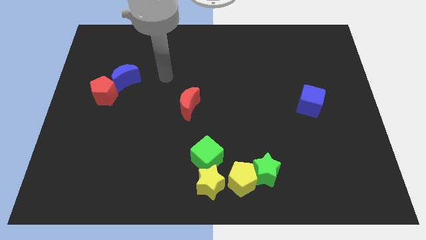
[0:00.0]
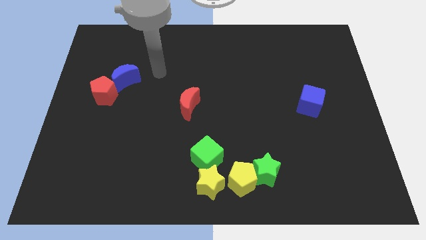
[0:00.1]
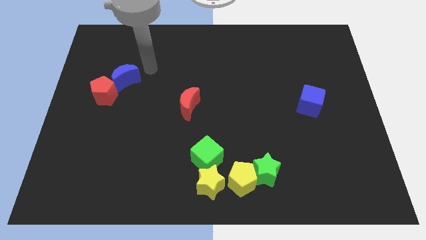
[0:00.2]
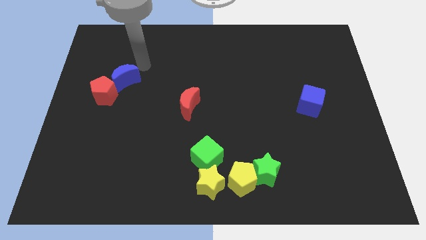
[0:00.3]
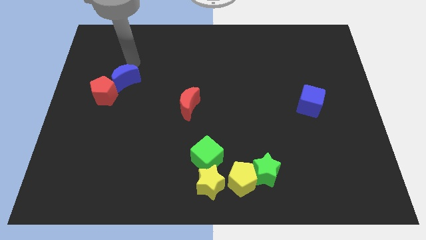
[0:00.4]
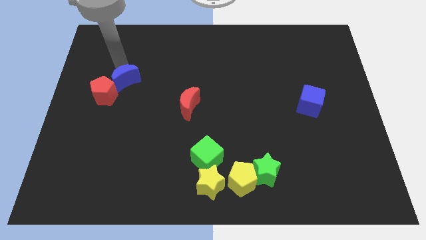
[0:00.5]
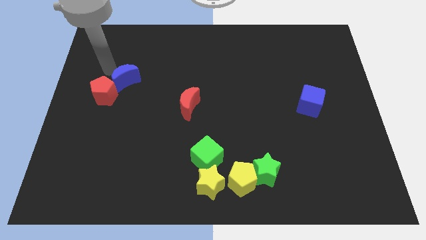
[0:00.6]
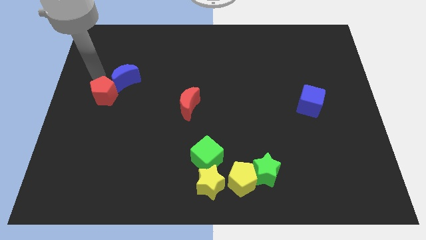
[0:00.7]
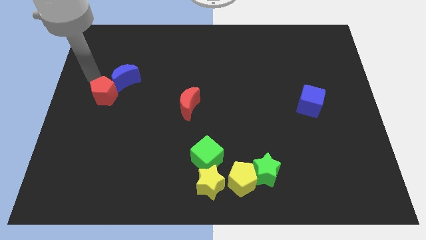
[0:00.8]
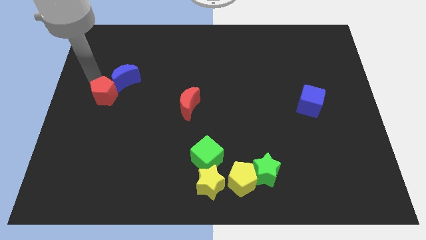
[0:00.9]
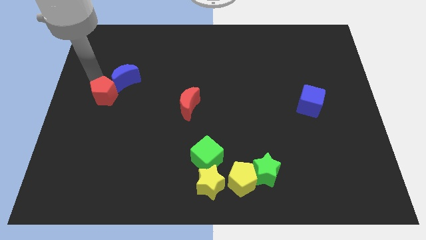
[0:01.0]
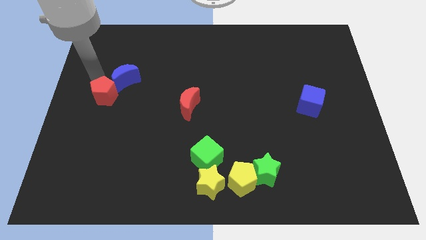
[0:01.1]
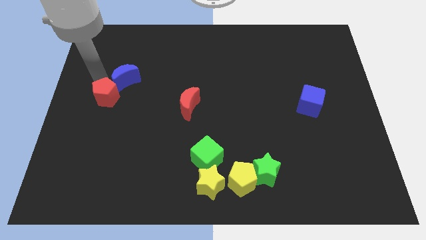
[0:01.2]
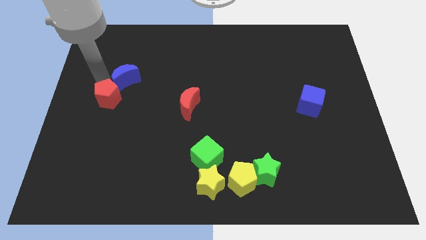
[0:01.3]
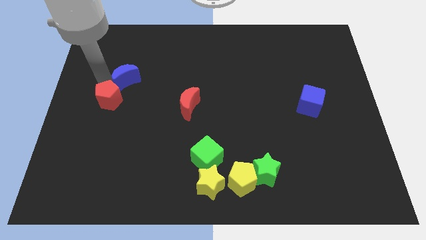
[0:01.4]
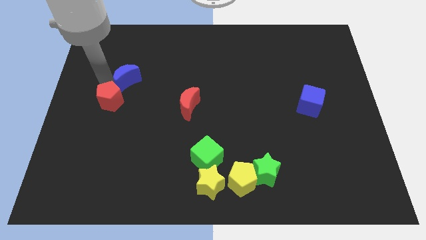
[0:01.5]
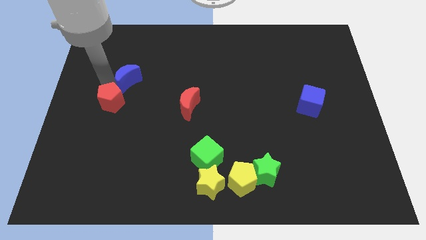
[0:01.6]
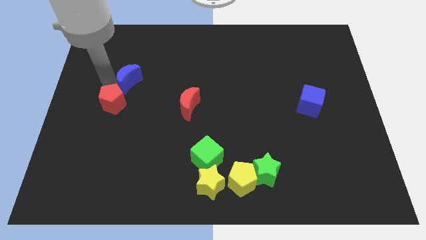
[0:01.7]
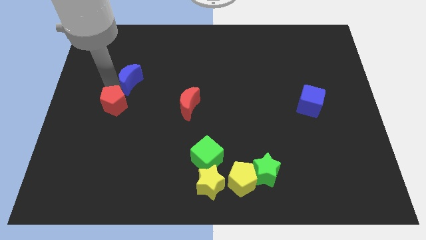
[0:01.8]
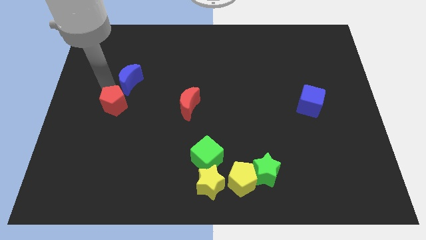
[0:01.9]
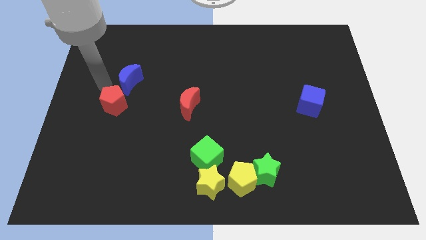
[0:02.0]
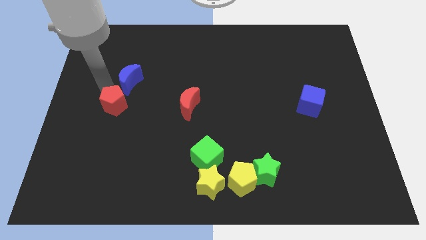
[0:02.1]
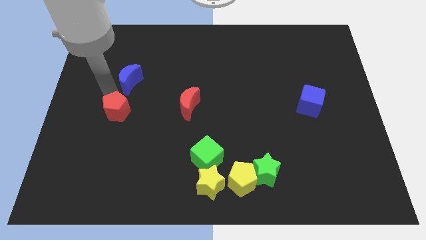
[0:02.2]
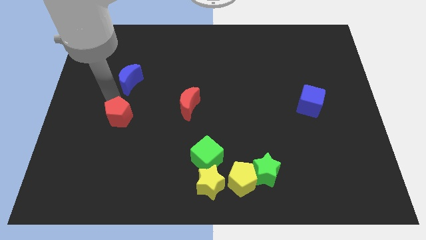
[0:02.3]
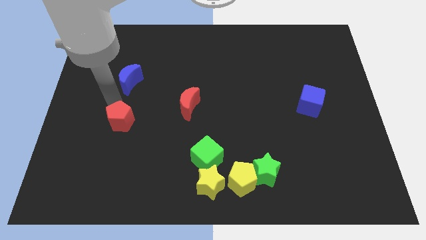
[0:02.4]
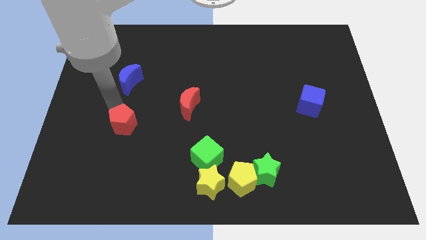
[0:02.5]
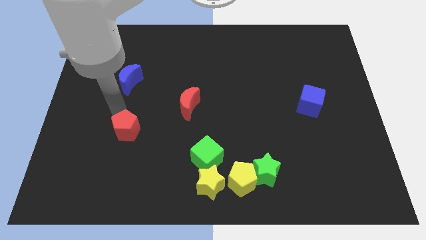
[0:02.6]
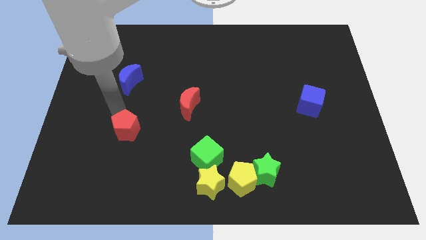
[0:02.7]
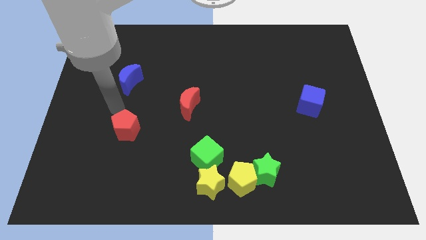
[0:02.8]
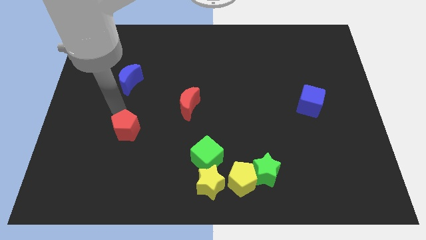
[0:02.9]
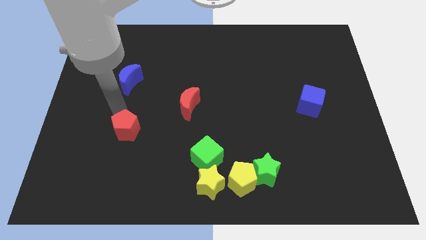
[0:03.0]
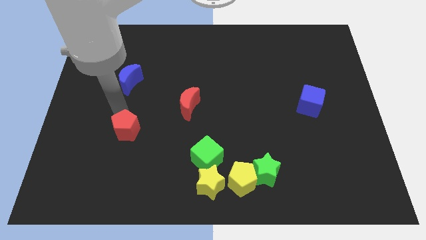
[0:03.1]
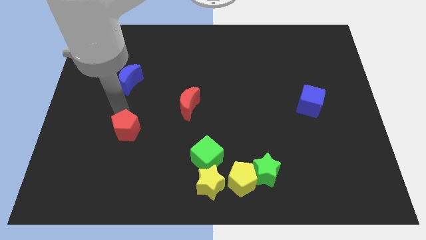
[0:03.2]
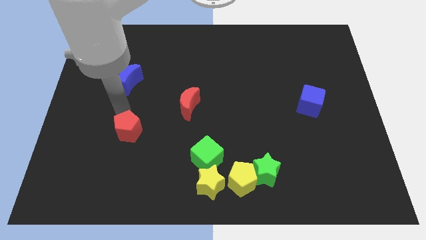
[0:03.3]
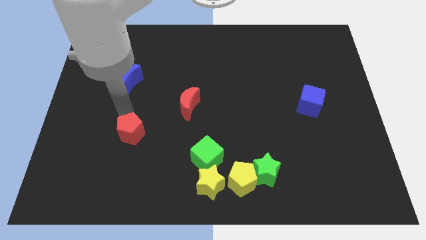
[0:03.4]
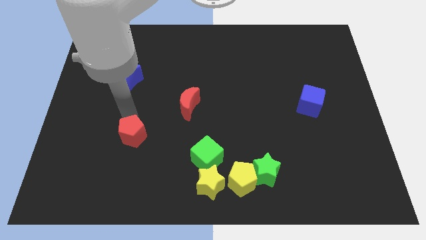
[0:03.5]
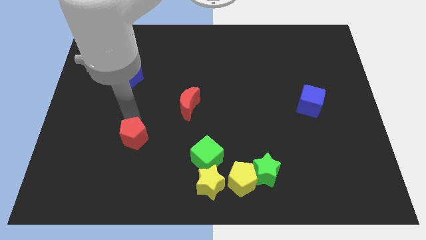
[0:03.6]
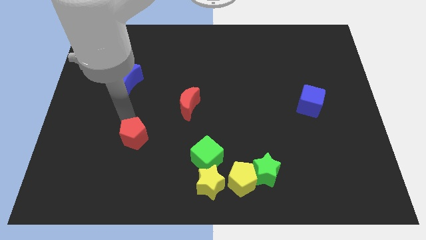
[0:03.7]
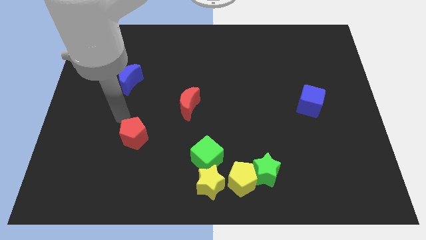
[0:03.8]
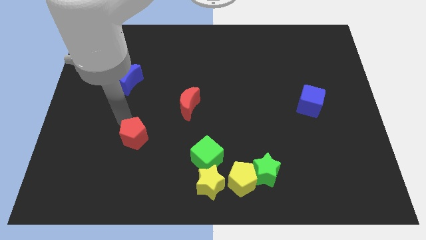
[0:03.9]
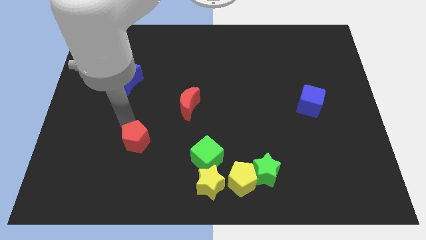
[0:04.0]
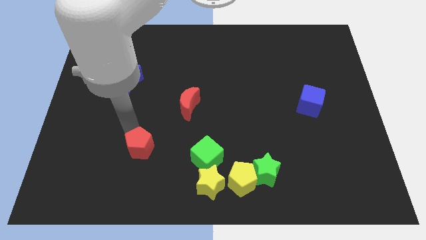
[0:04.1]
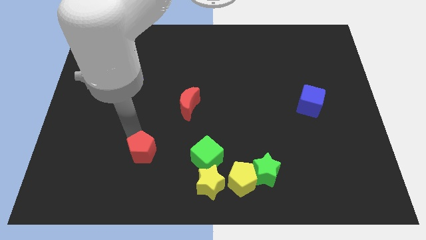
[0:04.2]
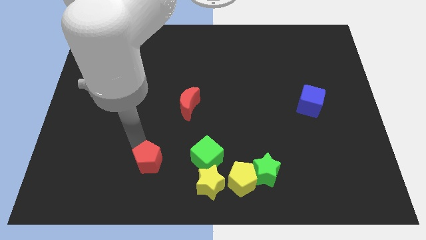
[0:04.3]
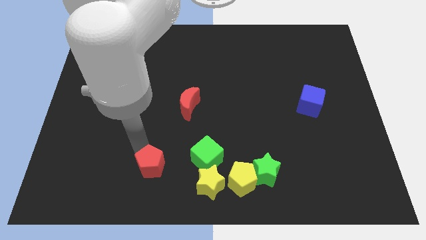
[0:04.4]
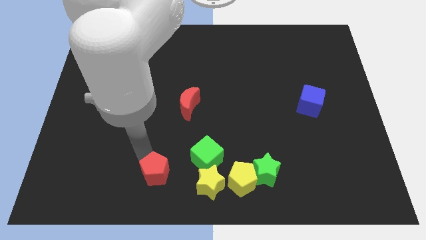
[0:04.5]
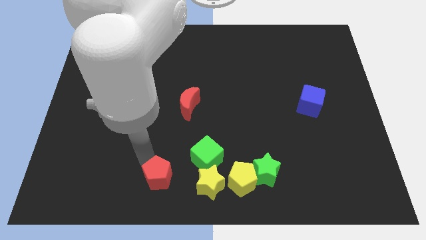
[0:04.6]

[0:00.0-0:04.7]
move the red pentagon to the bottom side

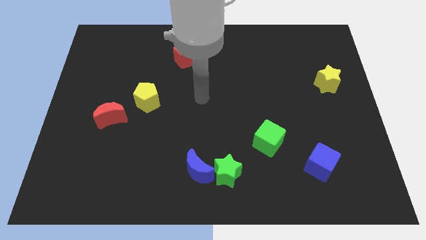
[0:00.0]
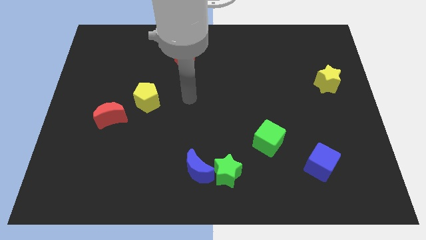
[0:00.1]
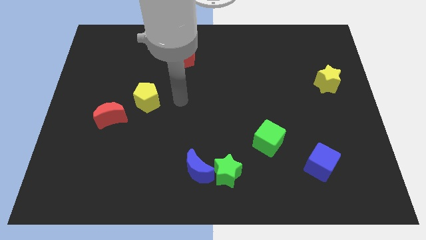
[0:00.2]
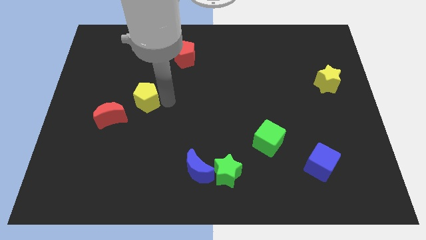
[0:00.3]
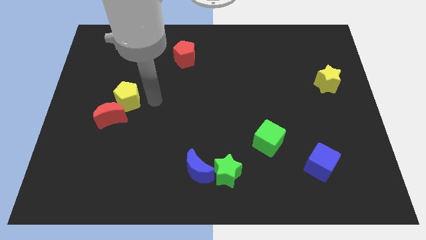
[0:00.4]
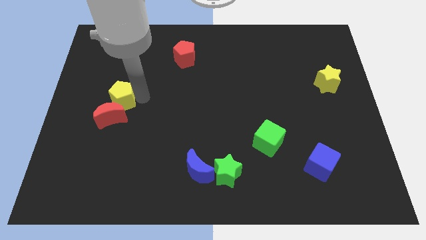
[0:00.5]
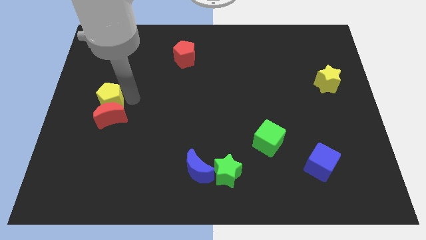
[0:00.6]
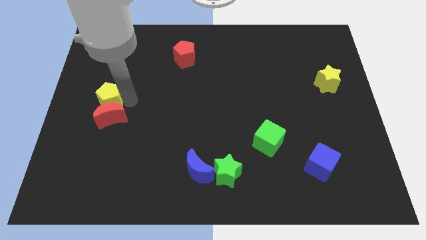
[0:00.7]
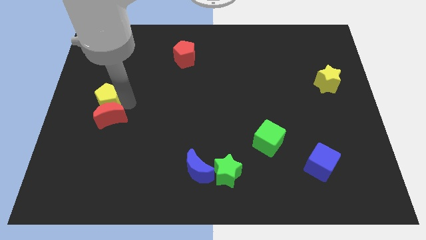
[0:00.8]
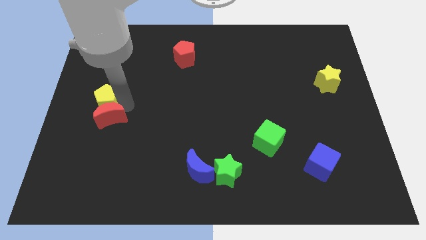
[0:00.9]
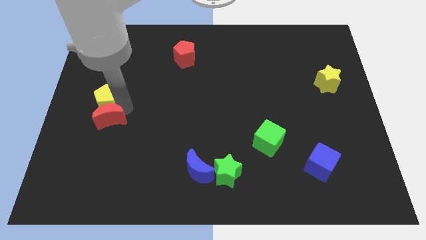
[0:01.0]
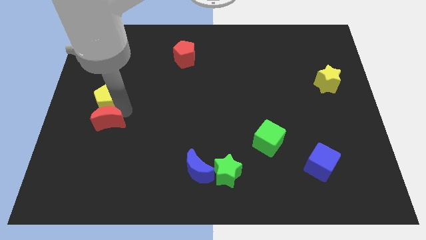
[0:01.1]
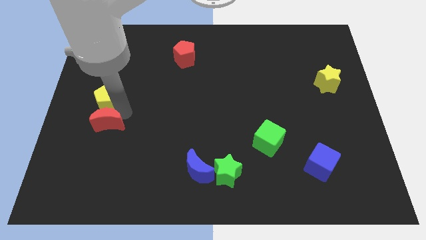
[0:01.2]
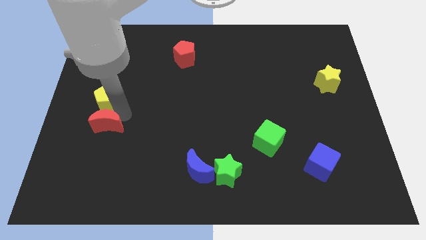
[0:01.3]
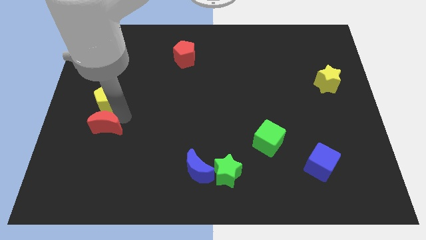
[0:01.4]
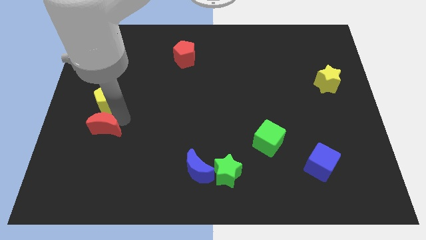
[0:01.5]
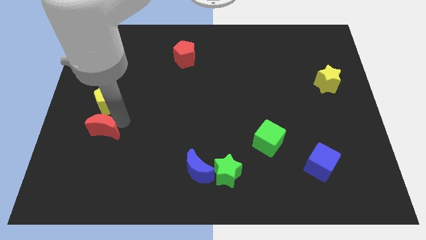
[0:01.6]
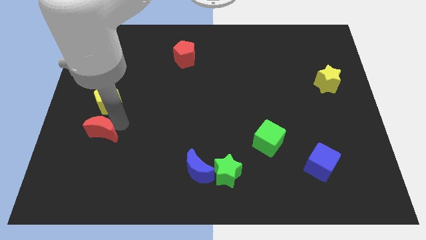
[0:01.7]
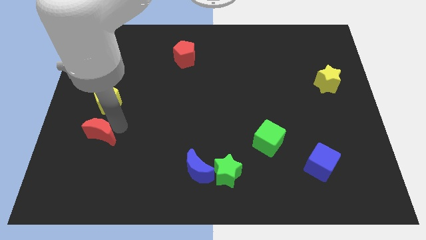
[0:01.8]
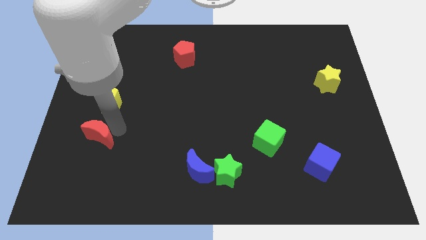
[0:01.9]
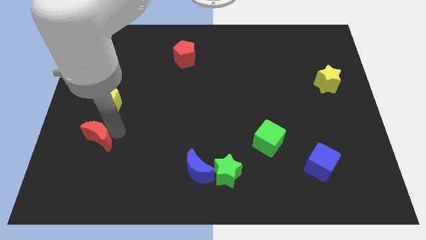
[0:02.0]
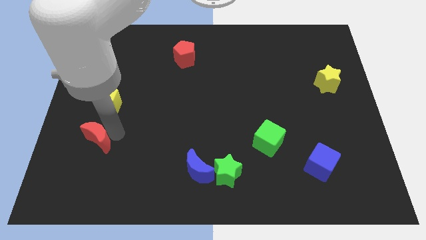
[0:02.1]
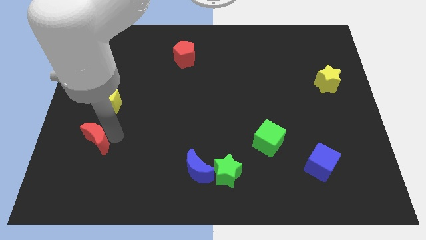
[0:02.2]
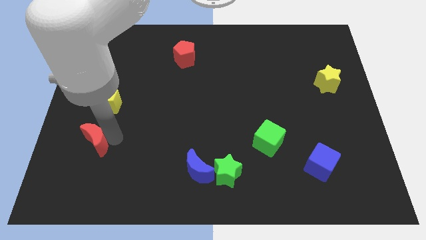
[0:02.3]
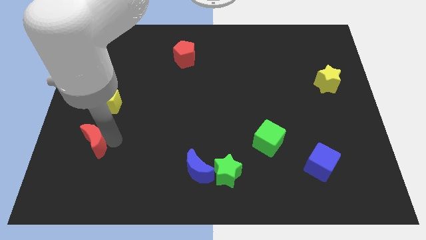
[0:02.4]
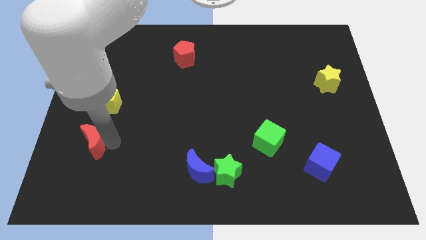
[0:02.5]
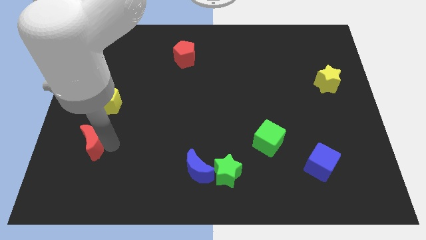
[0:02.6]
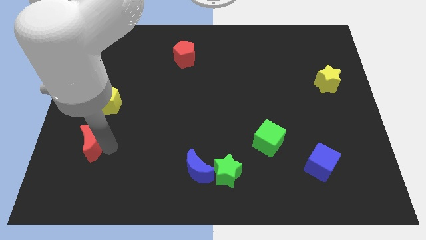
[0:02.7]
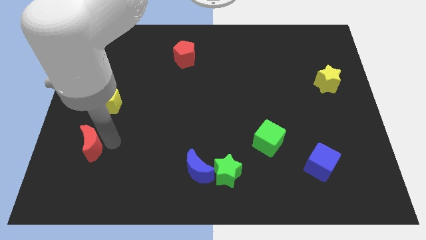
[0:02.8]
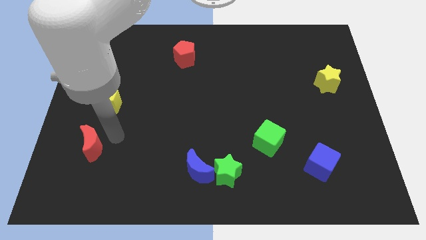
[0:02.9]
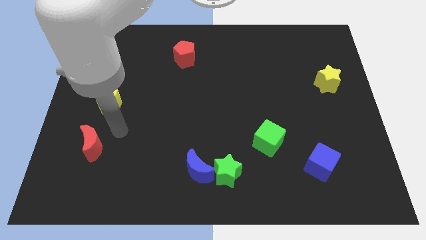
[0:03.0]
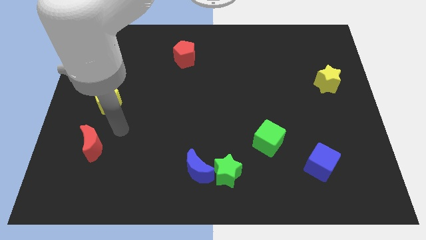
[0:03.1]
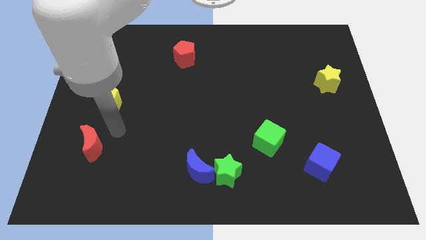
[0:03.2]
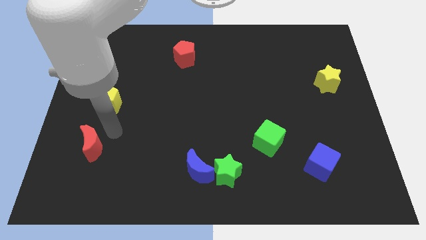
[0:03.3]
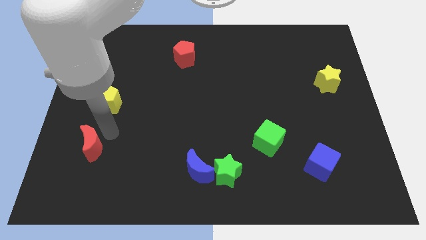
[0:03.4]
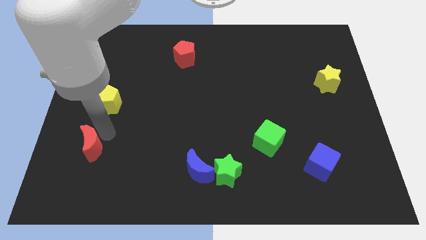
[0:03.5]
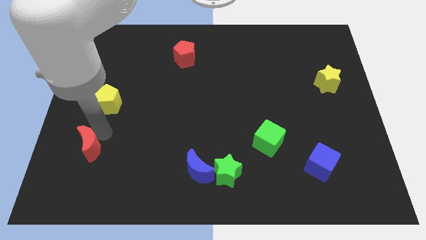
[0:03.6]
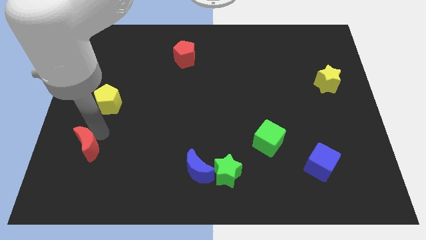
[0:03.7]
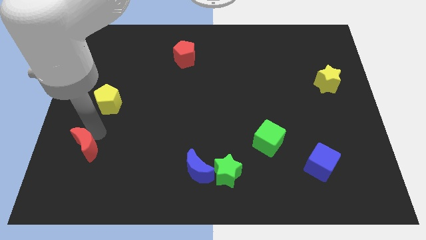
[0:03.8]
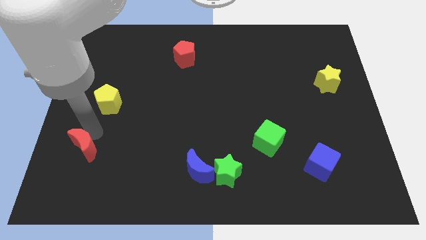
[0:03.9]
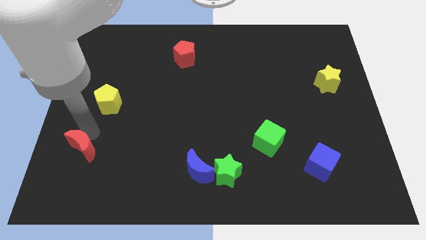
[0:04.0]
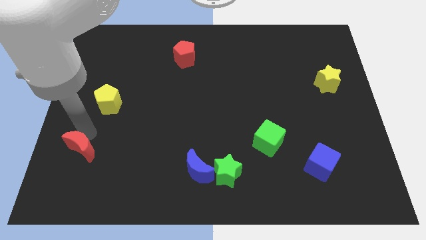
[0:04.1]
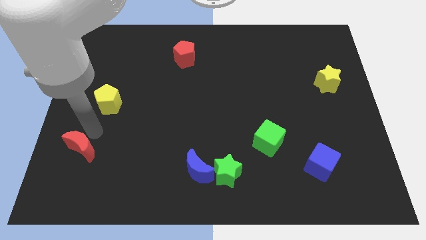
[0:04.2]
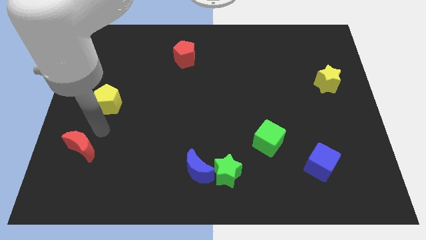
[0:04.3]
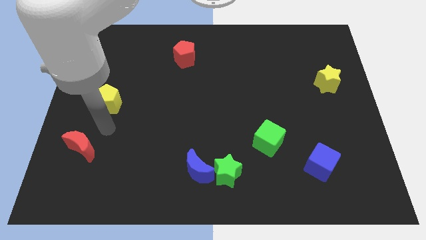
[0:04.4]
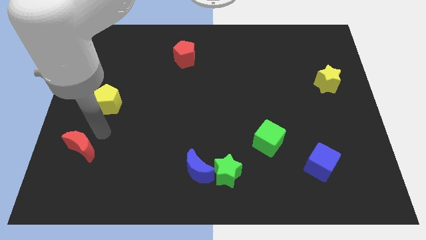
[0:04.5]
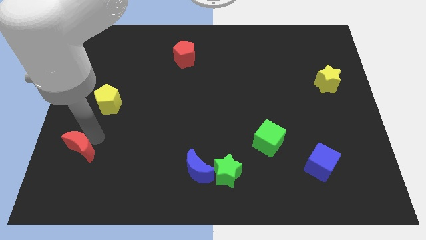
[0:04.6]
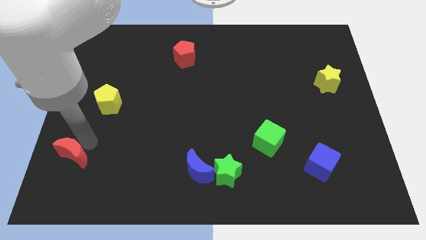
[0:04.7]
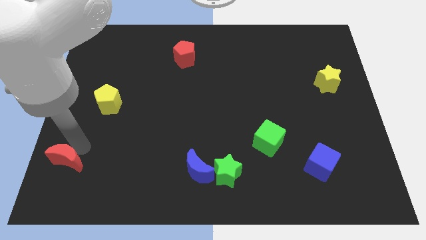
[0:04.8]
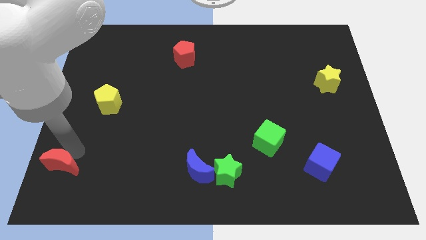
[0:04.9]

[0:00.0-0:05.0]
put the red moon to the bottom left corner
